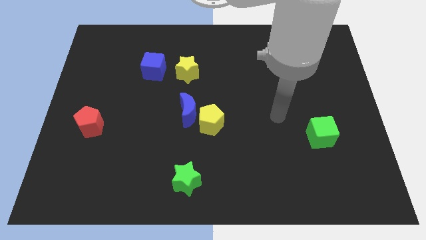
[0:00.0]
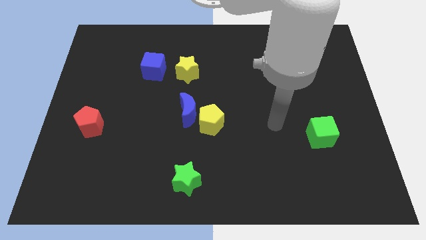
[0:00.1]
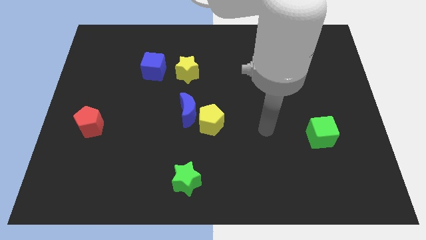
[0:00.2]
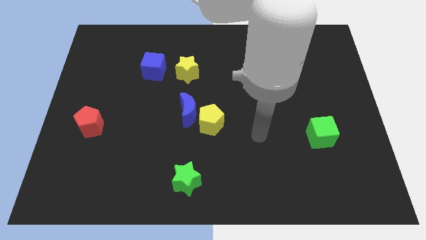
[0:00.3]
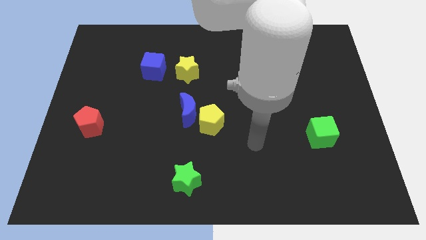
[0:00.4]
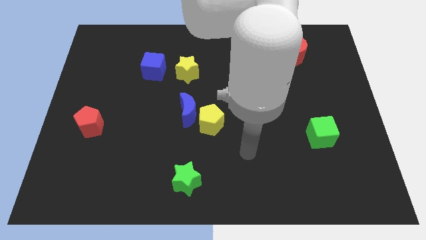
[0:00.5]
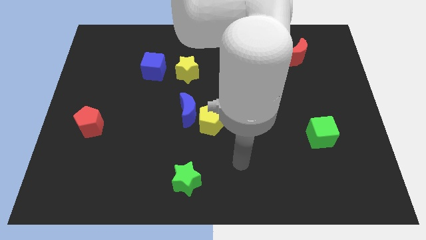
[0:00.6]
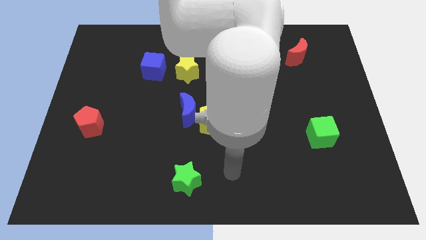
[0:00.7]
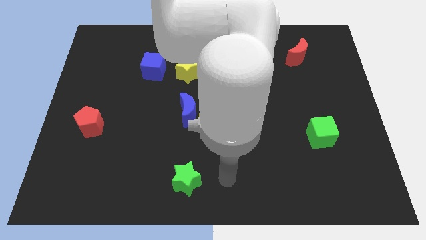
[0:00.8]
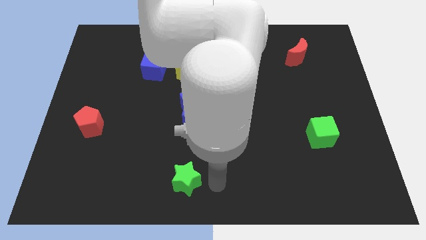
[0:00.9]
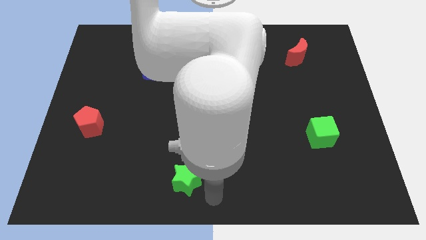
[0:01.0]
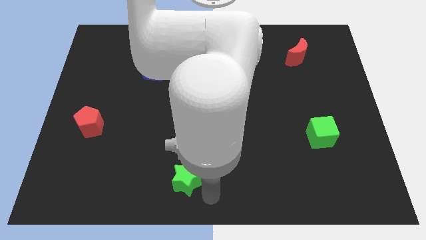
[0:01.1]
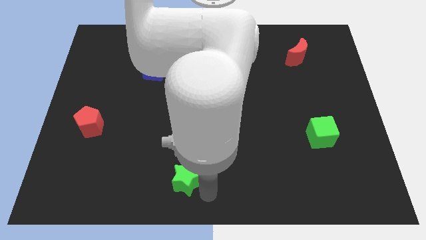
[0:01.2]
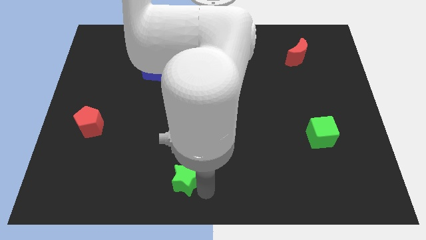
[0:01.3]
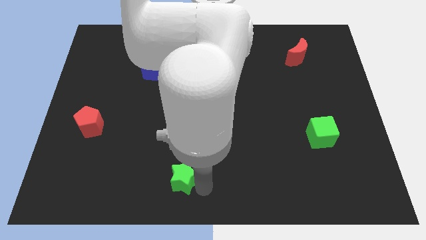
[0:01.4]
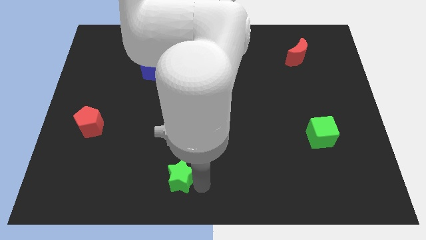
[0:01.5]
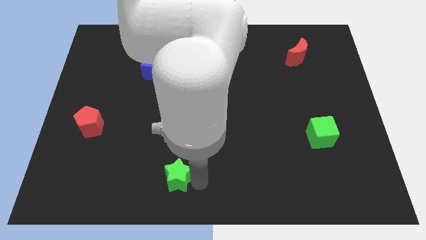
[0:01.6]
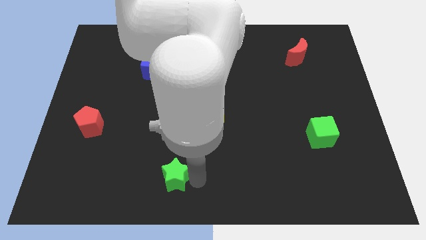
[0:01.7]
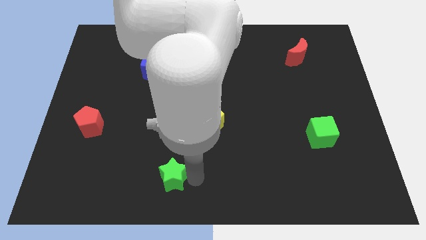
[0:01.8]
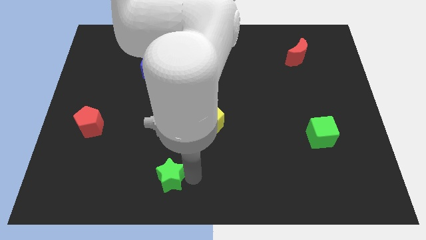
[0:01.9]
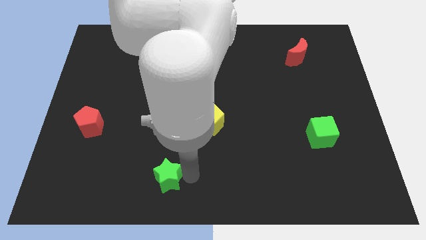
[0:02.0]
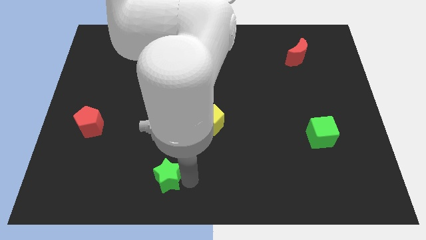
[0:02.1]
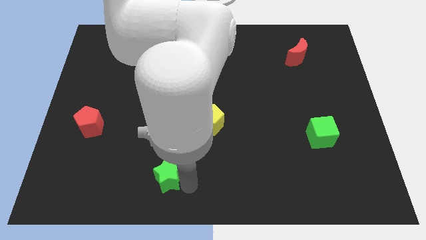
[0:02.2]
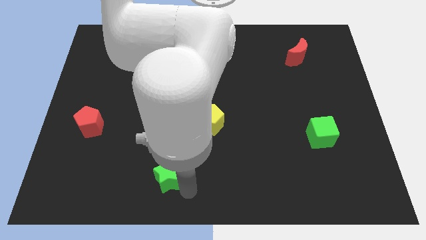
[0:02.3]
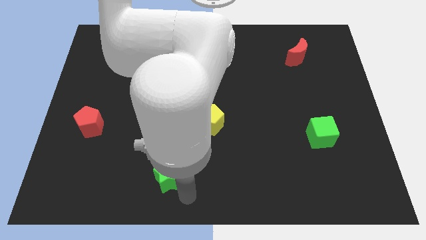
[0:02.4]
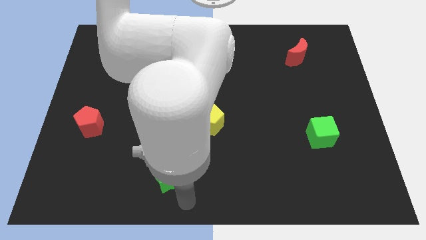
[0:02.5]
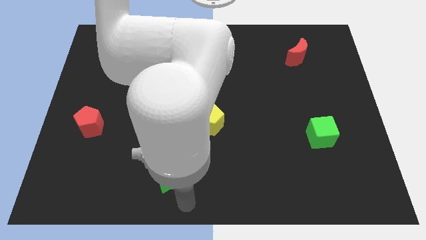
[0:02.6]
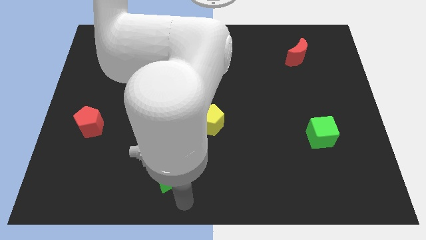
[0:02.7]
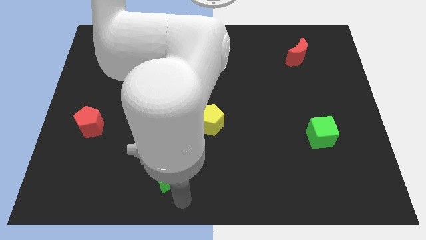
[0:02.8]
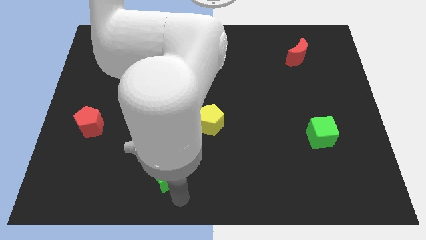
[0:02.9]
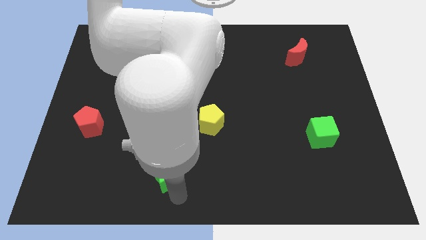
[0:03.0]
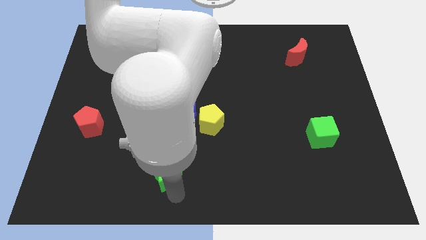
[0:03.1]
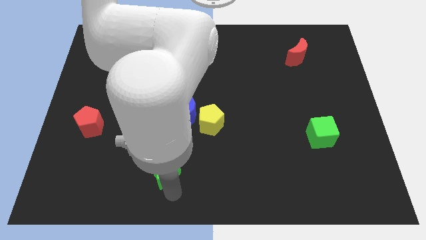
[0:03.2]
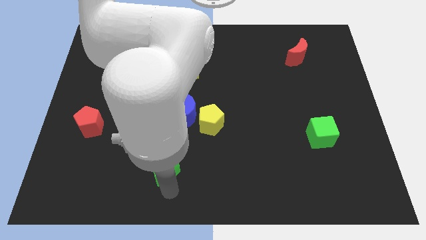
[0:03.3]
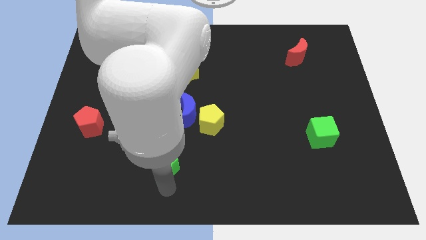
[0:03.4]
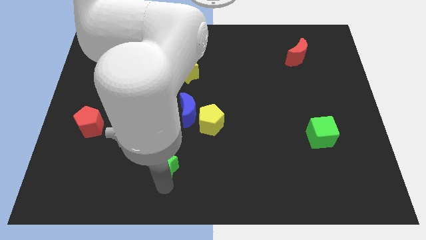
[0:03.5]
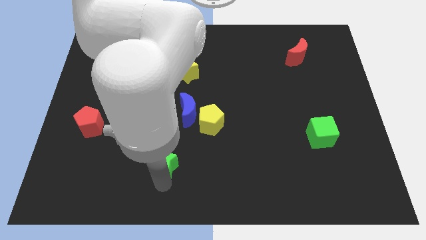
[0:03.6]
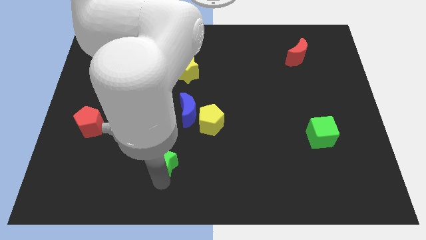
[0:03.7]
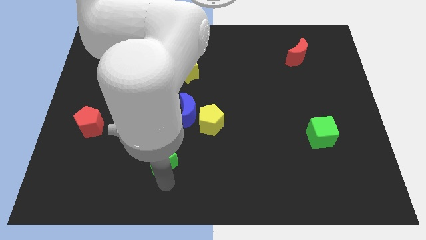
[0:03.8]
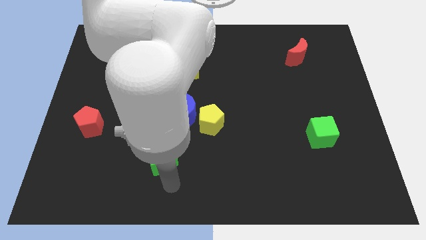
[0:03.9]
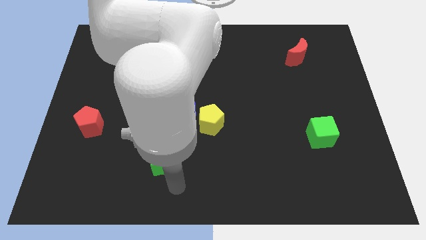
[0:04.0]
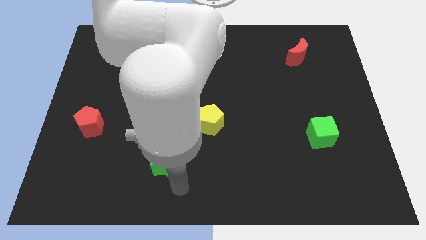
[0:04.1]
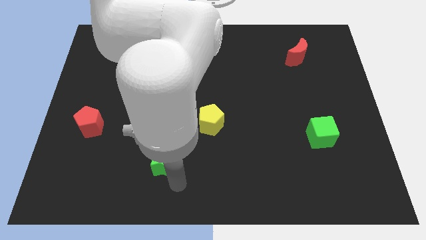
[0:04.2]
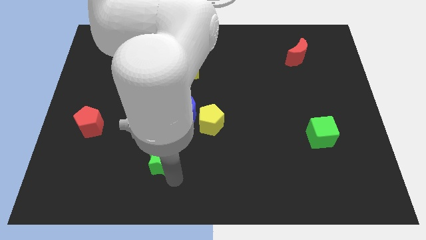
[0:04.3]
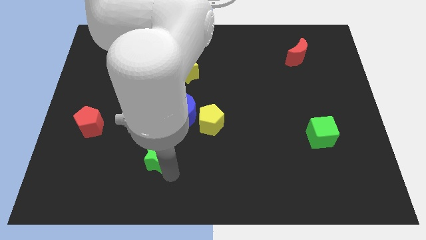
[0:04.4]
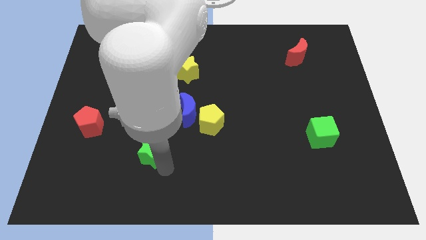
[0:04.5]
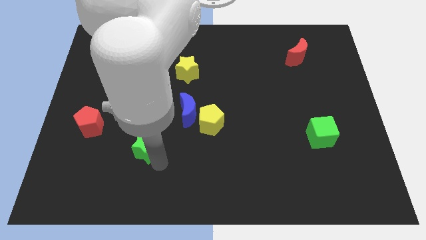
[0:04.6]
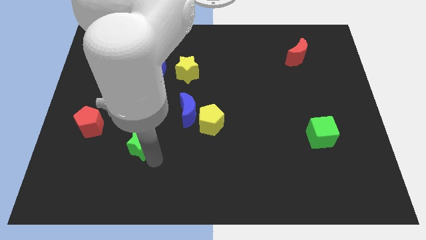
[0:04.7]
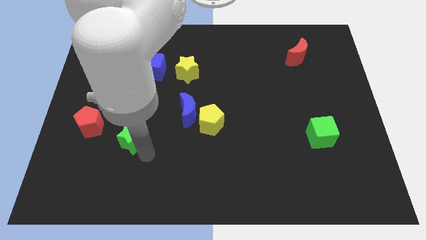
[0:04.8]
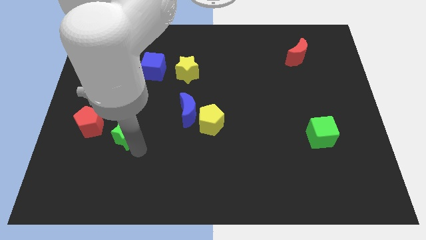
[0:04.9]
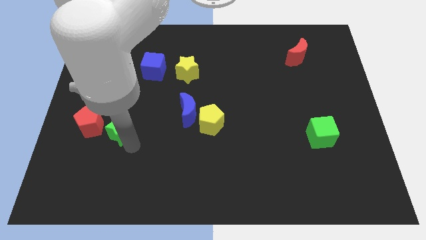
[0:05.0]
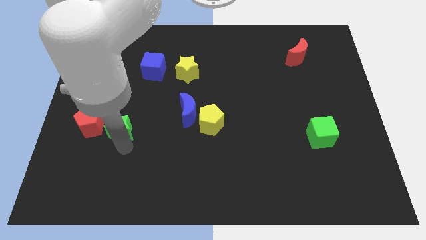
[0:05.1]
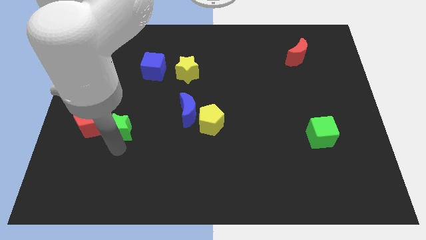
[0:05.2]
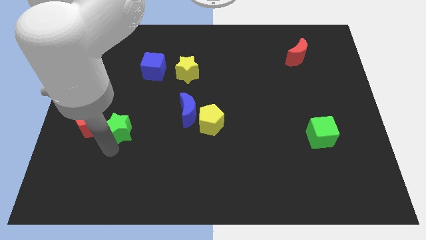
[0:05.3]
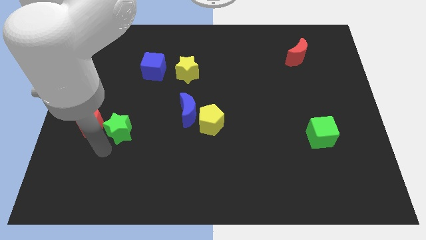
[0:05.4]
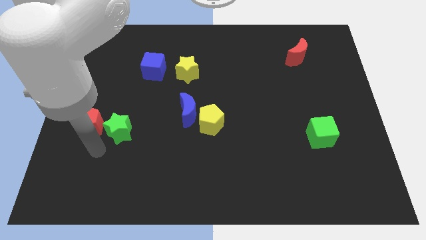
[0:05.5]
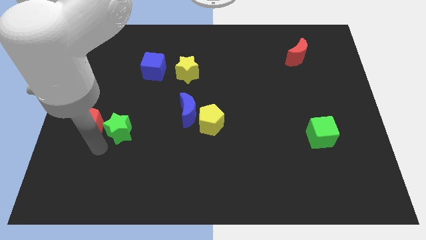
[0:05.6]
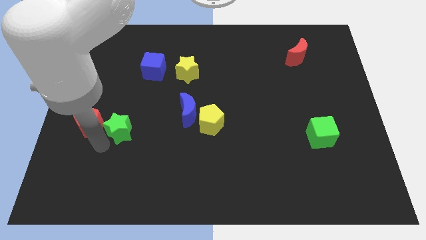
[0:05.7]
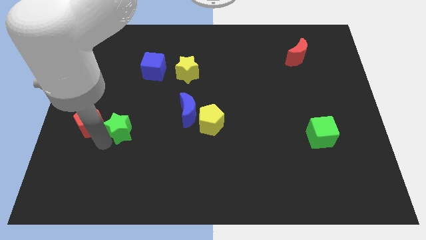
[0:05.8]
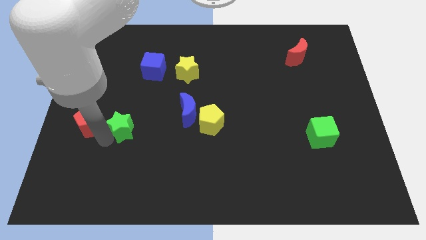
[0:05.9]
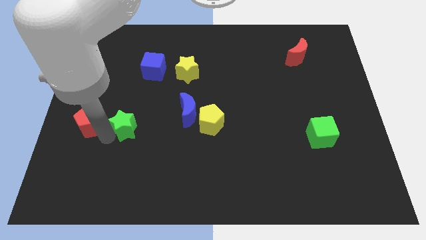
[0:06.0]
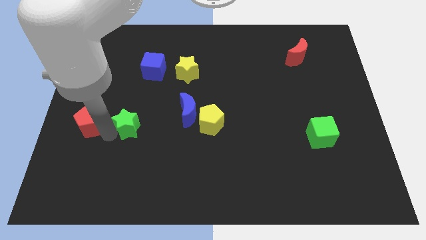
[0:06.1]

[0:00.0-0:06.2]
move the green star to the left side of the blue moon

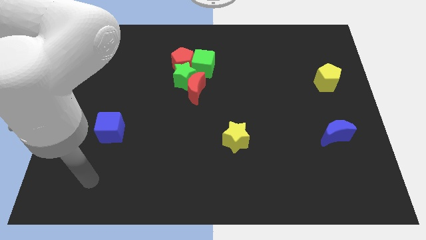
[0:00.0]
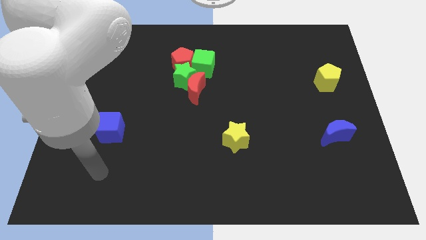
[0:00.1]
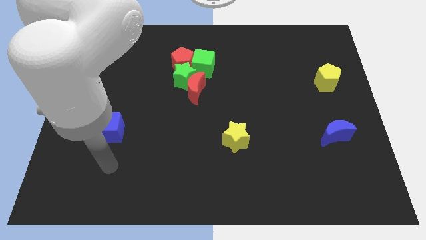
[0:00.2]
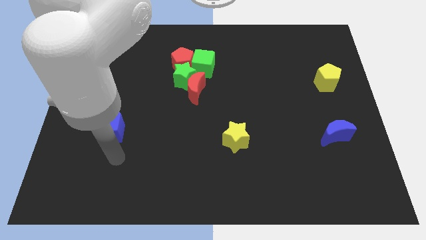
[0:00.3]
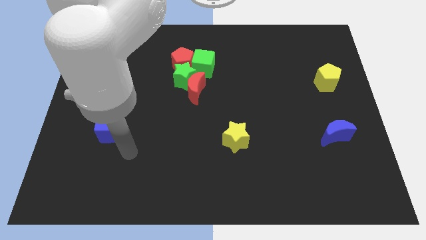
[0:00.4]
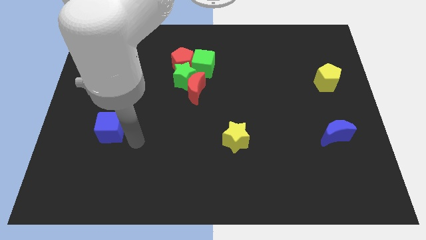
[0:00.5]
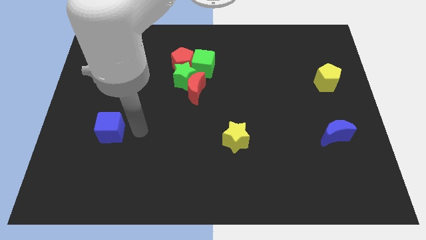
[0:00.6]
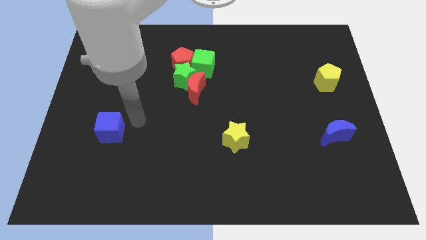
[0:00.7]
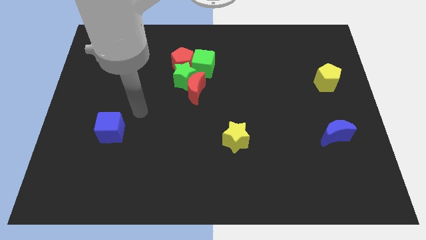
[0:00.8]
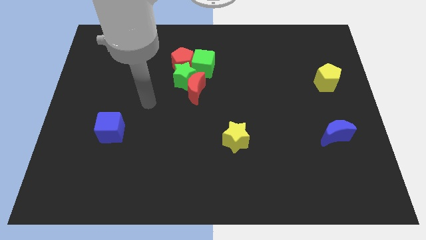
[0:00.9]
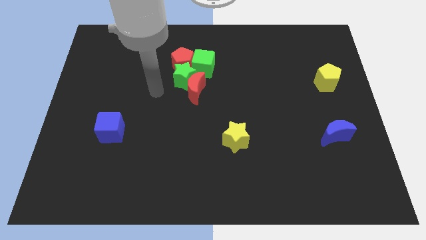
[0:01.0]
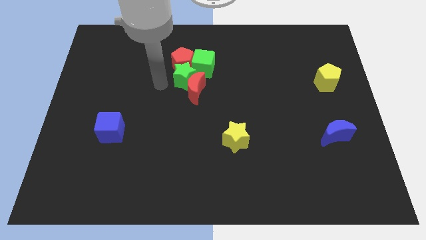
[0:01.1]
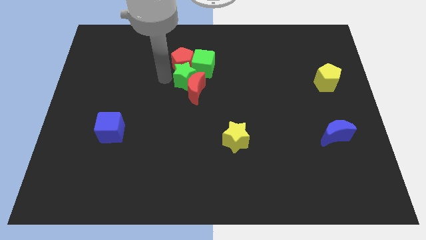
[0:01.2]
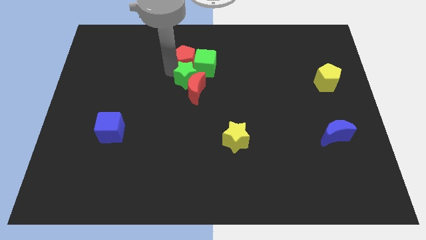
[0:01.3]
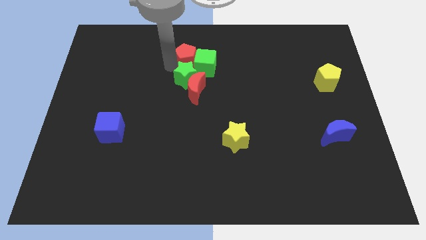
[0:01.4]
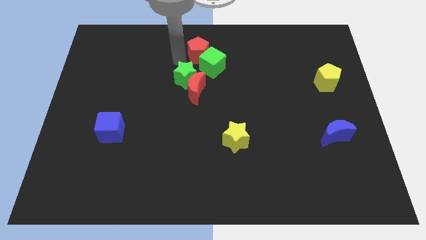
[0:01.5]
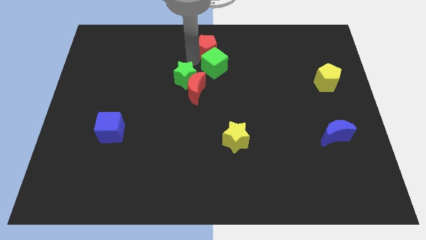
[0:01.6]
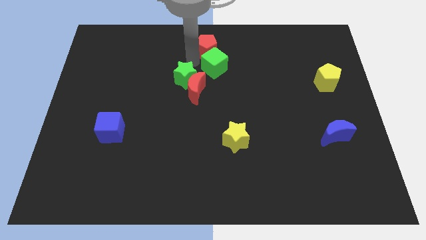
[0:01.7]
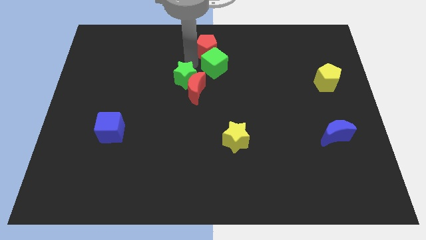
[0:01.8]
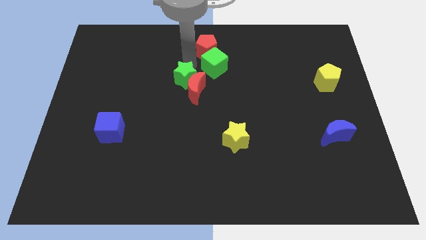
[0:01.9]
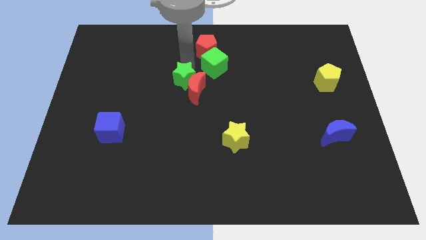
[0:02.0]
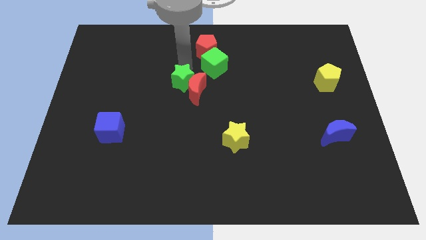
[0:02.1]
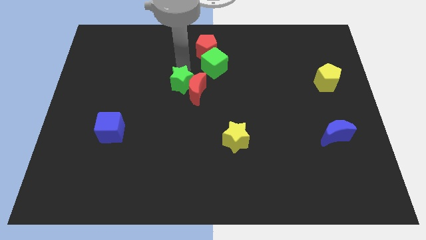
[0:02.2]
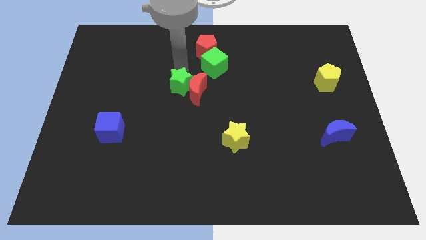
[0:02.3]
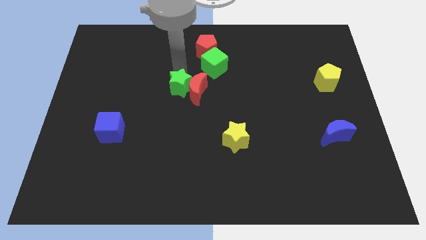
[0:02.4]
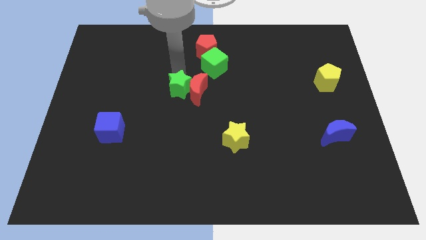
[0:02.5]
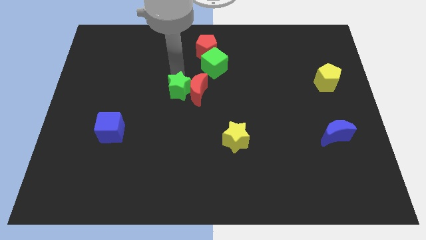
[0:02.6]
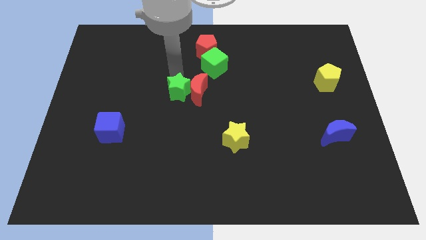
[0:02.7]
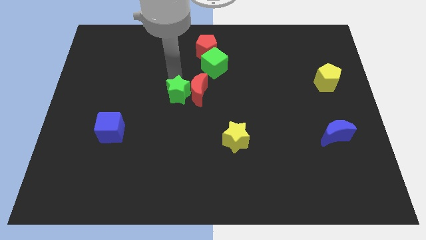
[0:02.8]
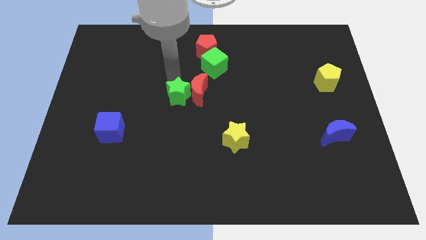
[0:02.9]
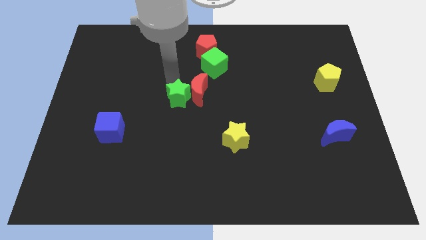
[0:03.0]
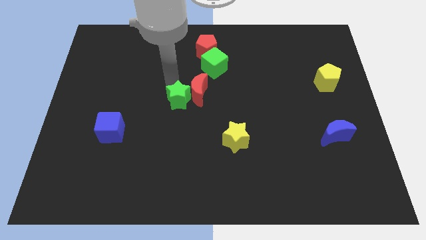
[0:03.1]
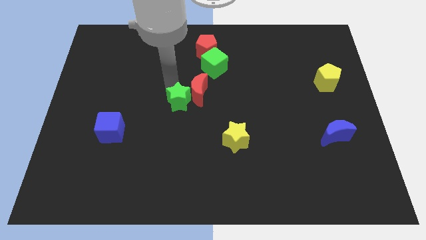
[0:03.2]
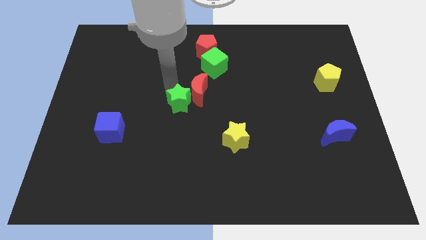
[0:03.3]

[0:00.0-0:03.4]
slide the green star to the bottom of the red moon
